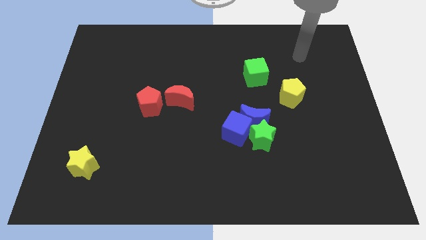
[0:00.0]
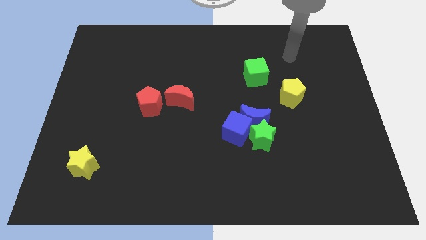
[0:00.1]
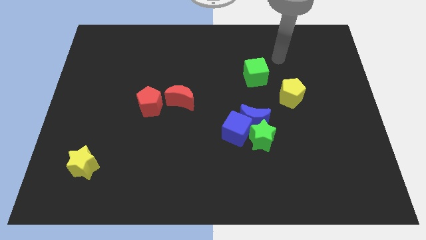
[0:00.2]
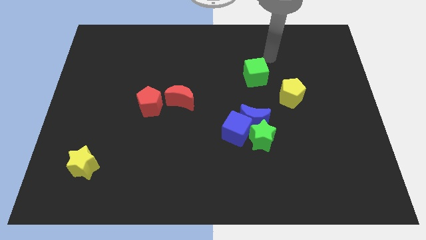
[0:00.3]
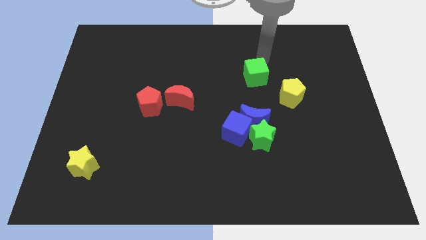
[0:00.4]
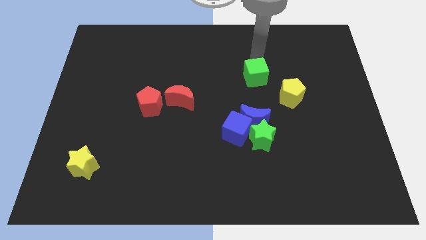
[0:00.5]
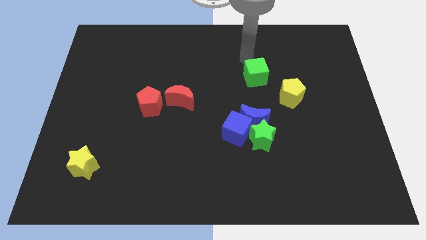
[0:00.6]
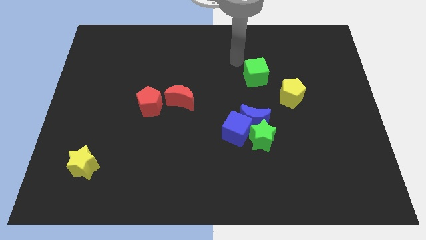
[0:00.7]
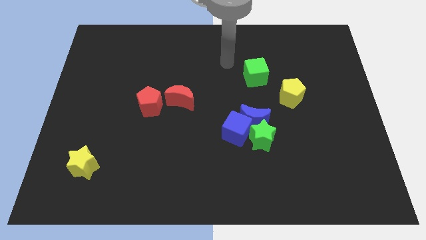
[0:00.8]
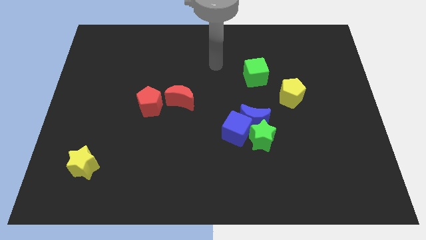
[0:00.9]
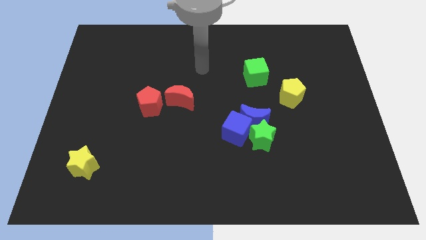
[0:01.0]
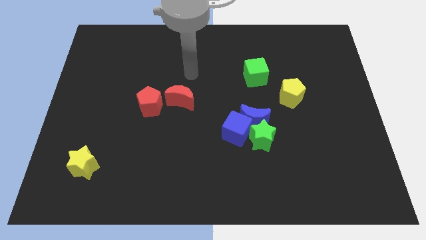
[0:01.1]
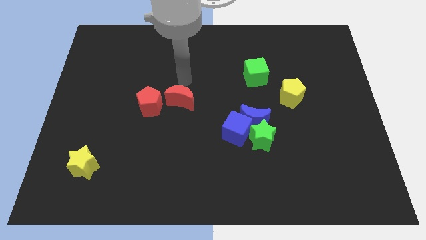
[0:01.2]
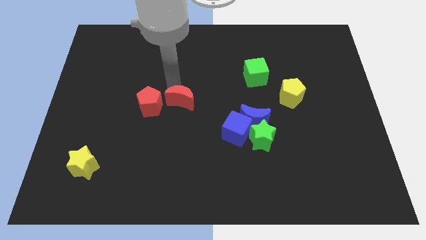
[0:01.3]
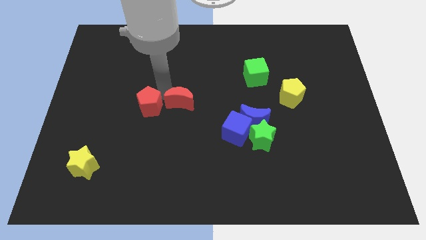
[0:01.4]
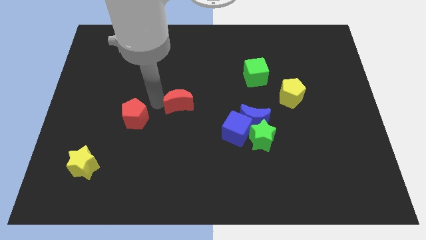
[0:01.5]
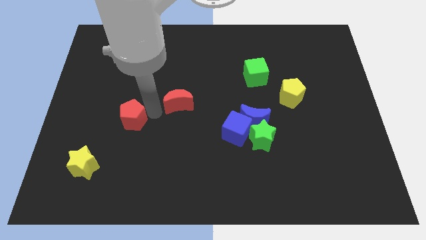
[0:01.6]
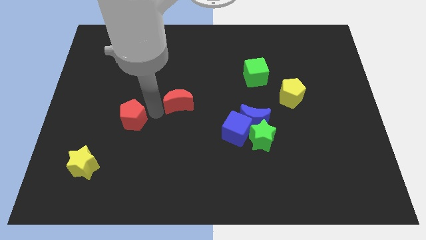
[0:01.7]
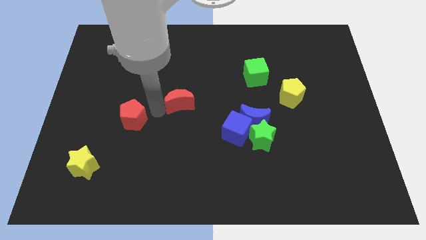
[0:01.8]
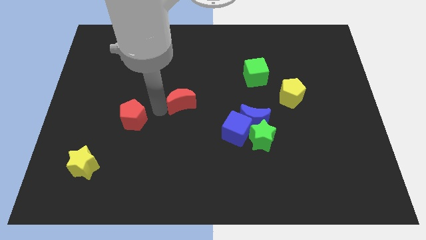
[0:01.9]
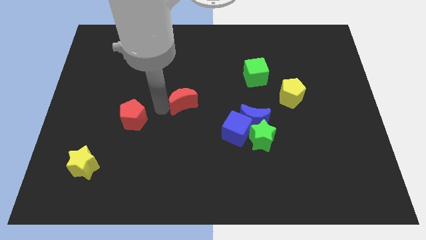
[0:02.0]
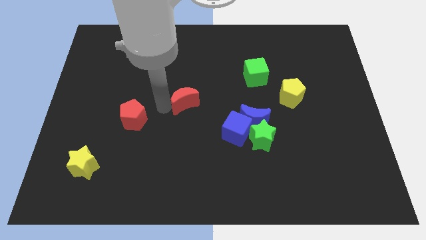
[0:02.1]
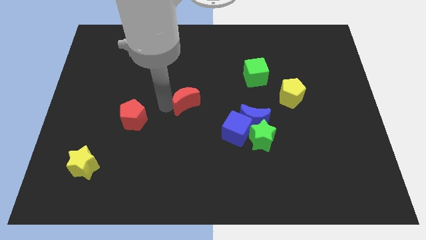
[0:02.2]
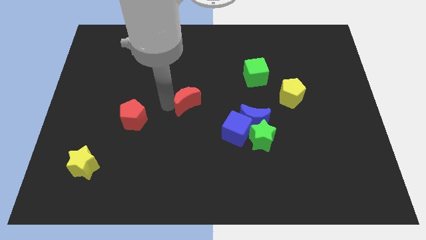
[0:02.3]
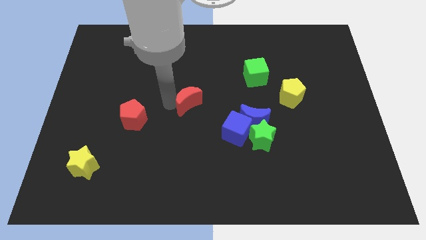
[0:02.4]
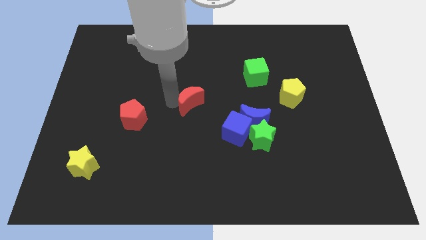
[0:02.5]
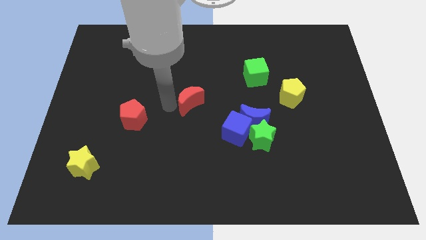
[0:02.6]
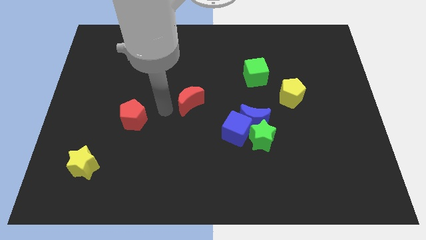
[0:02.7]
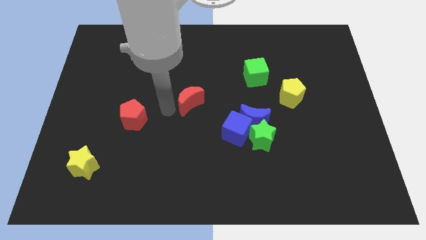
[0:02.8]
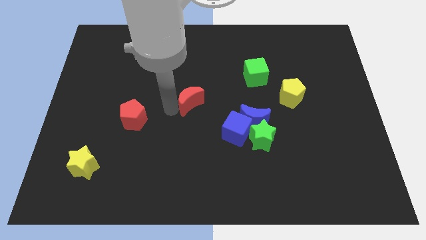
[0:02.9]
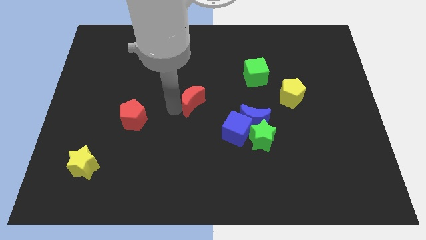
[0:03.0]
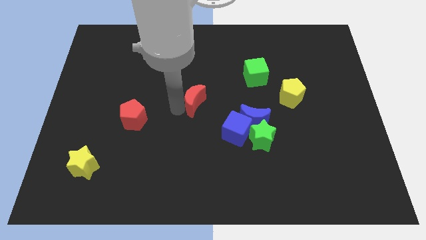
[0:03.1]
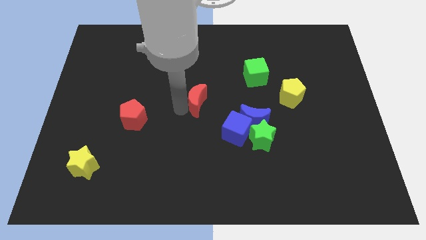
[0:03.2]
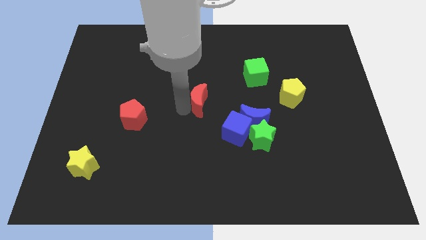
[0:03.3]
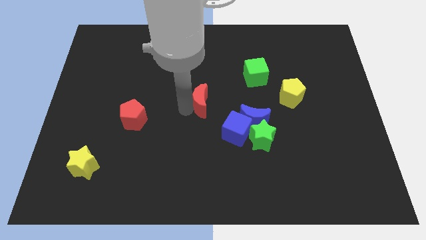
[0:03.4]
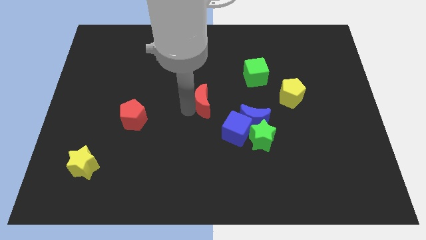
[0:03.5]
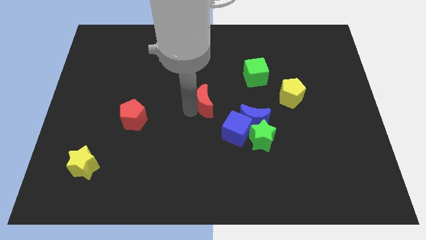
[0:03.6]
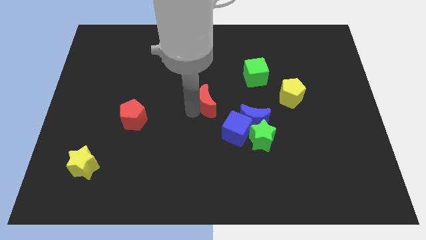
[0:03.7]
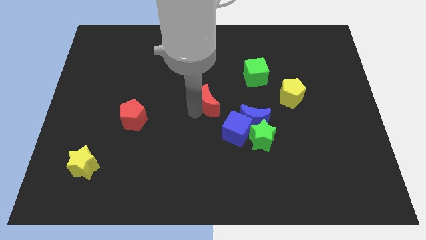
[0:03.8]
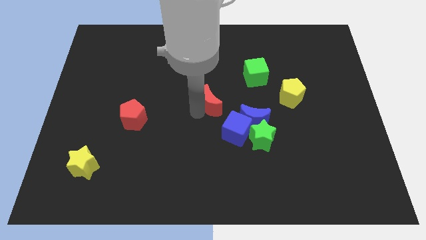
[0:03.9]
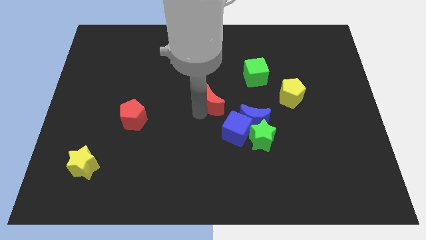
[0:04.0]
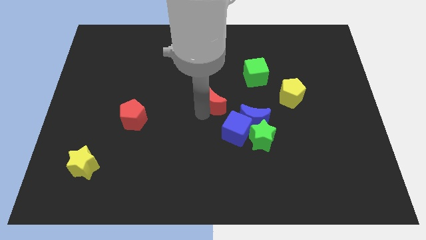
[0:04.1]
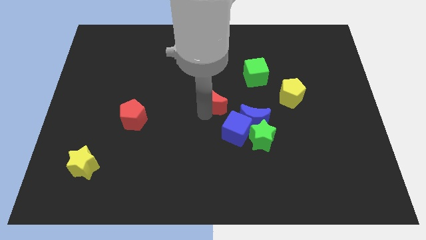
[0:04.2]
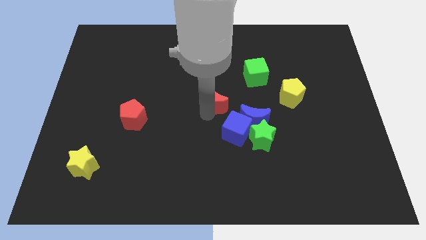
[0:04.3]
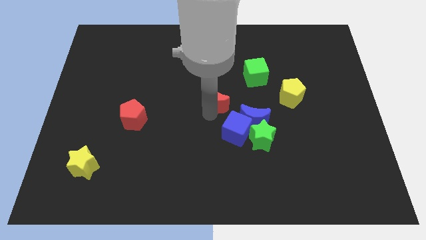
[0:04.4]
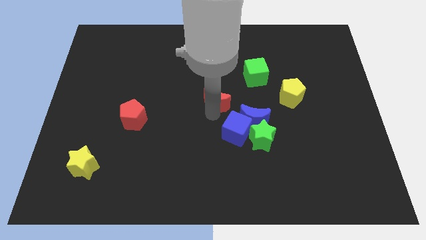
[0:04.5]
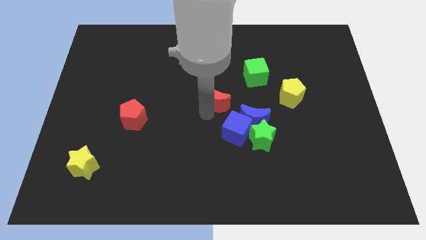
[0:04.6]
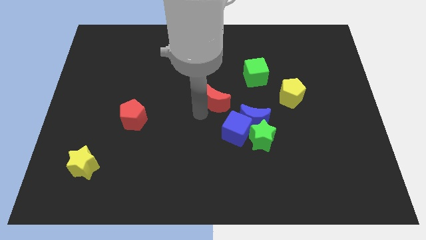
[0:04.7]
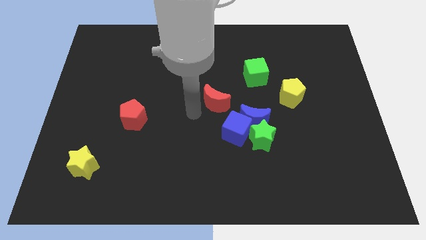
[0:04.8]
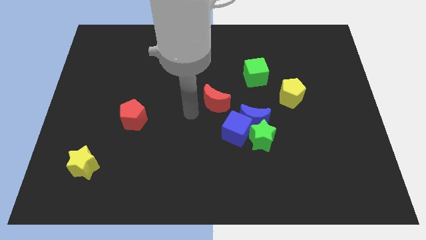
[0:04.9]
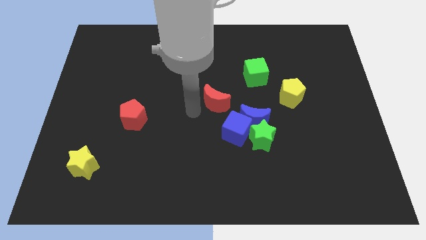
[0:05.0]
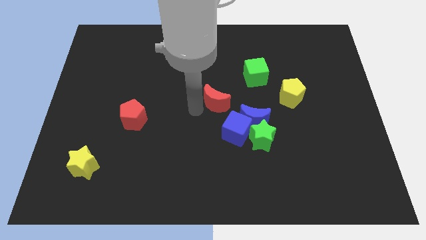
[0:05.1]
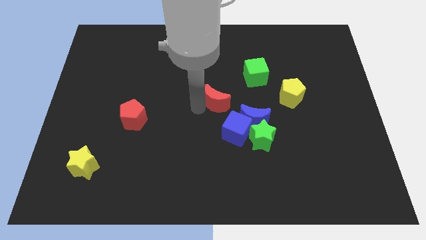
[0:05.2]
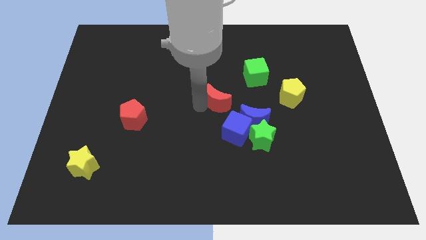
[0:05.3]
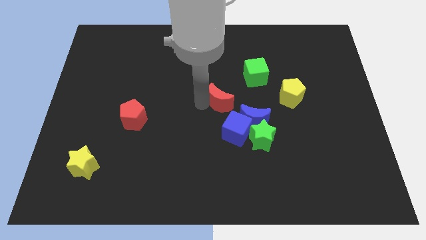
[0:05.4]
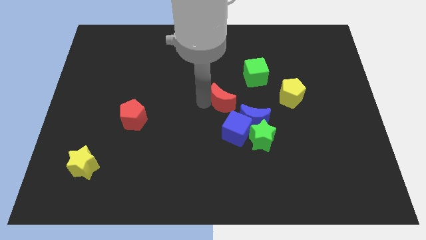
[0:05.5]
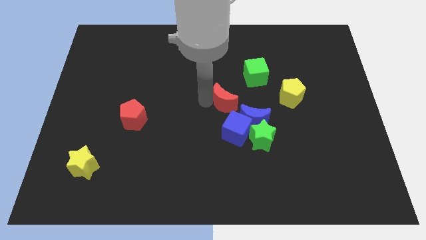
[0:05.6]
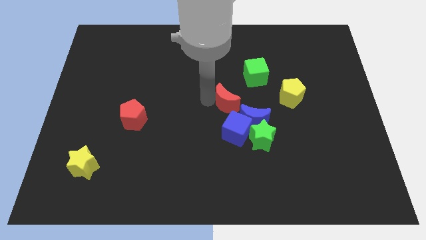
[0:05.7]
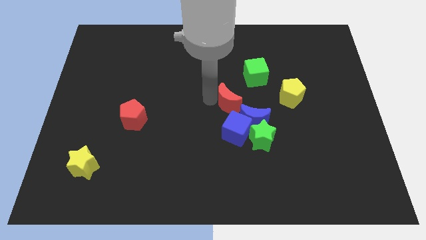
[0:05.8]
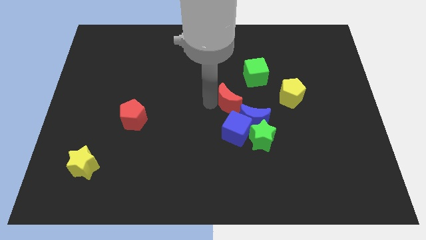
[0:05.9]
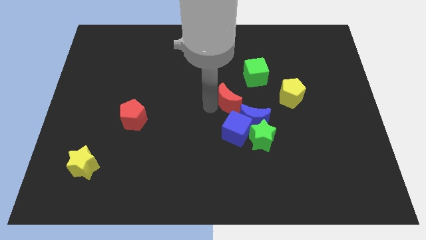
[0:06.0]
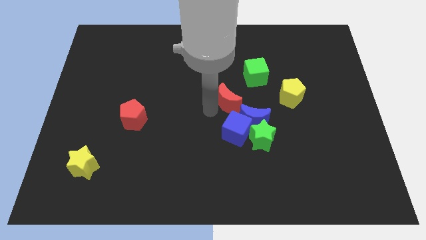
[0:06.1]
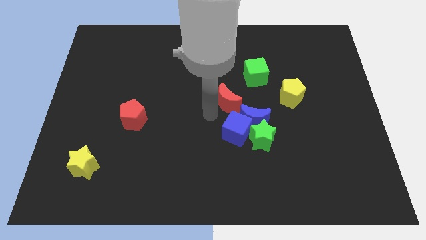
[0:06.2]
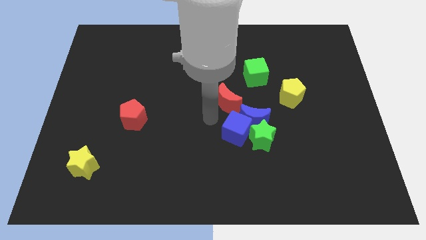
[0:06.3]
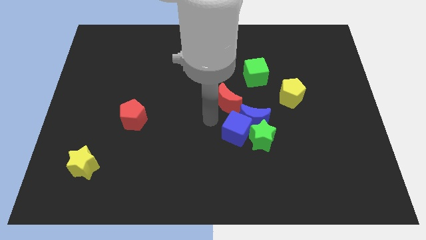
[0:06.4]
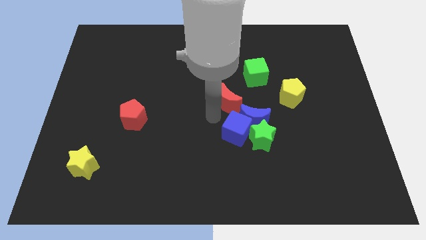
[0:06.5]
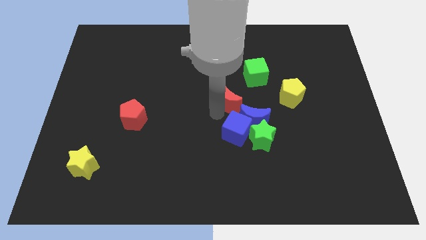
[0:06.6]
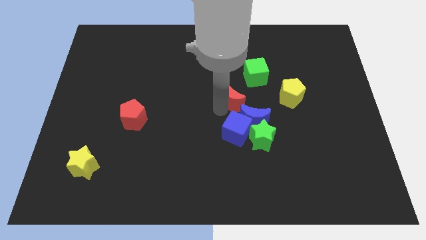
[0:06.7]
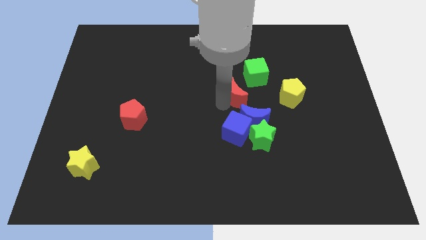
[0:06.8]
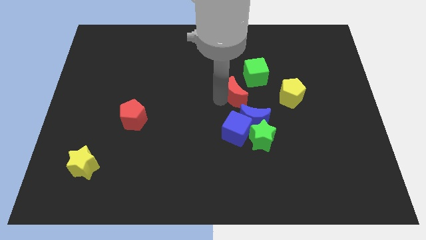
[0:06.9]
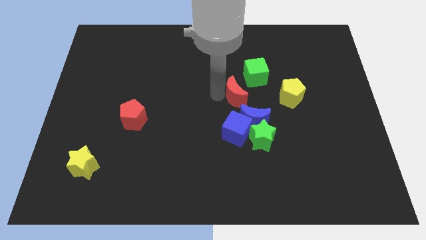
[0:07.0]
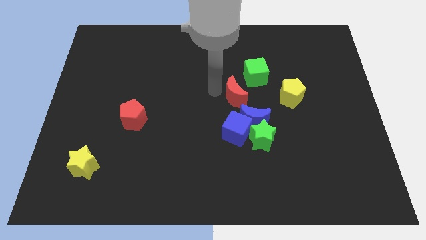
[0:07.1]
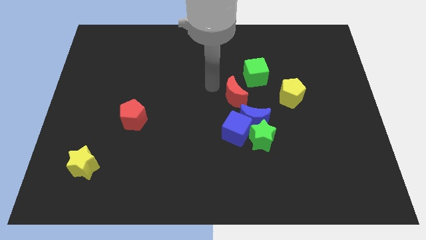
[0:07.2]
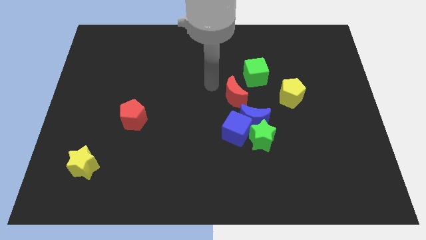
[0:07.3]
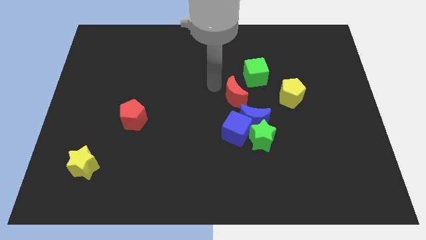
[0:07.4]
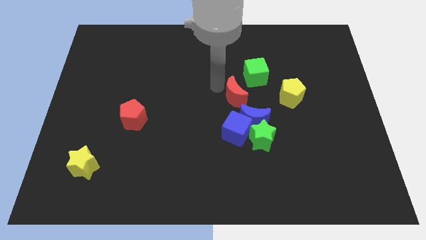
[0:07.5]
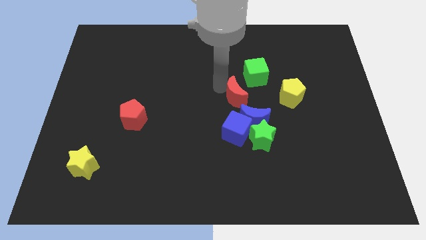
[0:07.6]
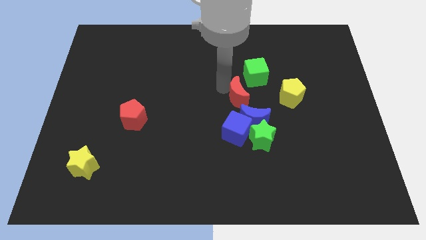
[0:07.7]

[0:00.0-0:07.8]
put the red moon to the bottom side of the green cube
